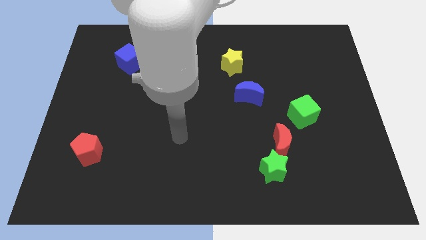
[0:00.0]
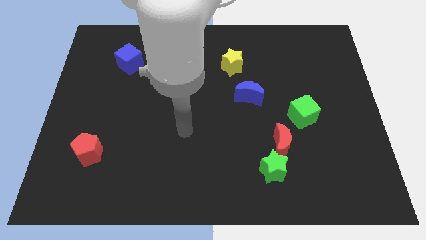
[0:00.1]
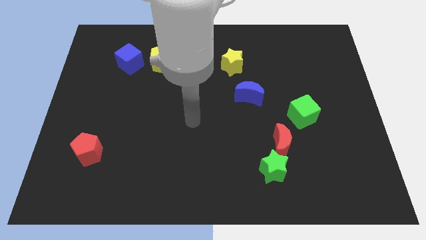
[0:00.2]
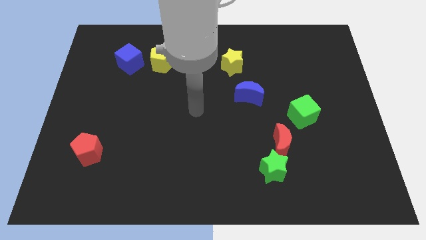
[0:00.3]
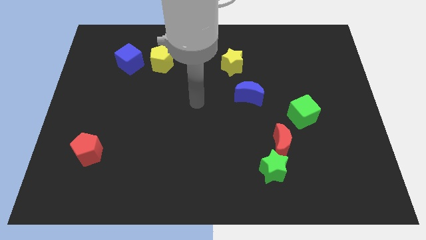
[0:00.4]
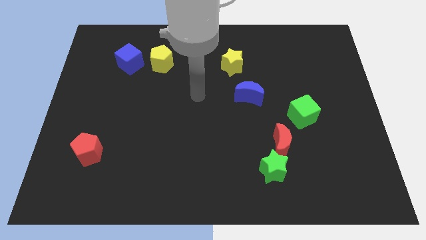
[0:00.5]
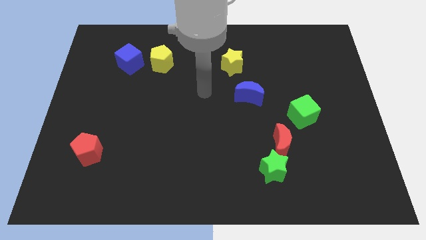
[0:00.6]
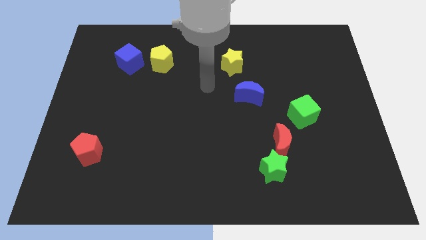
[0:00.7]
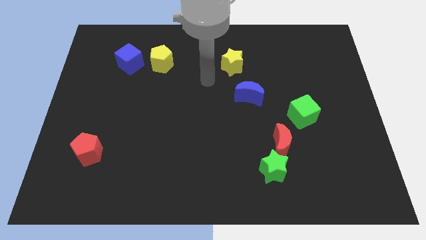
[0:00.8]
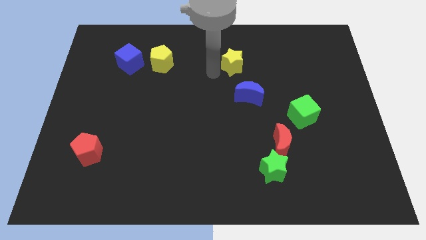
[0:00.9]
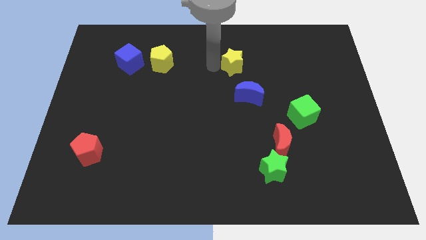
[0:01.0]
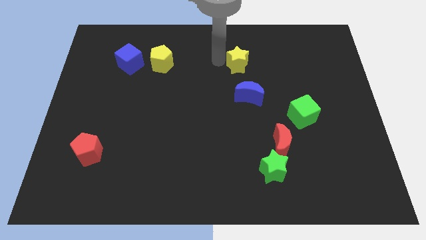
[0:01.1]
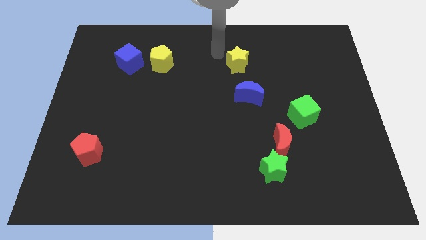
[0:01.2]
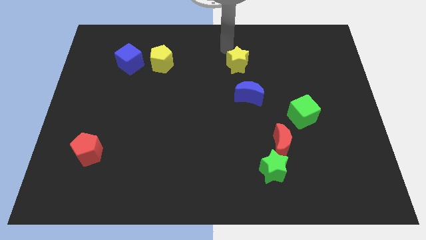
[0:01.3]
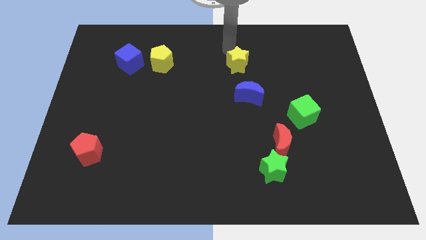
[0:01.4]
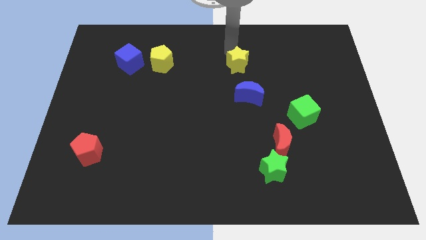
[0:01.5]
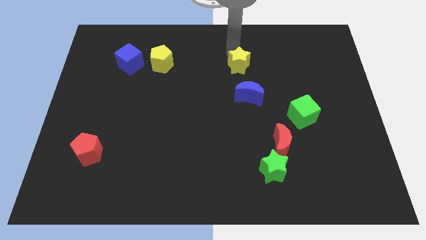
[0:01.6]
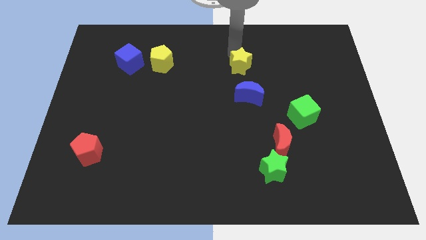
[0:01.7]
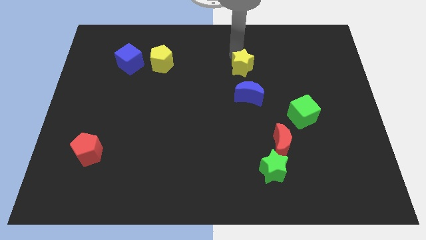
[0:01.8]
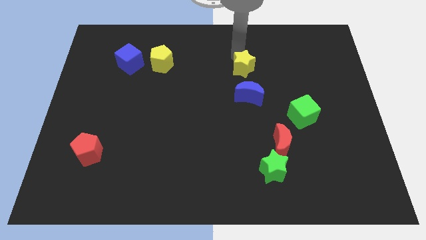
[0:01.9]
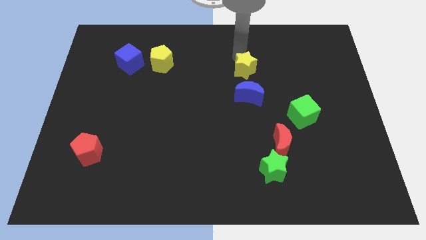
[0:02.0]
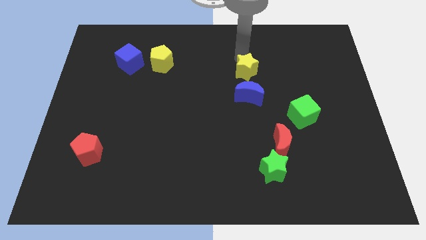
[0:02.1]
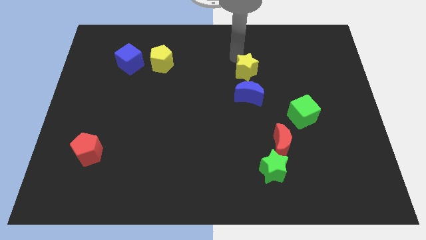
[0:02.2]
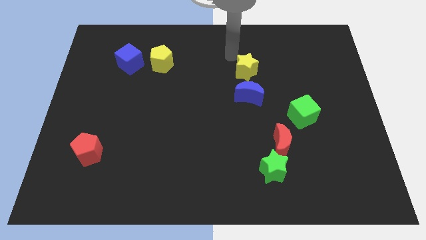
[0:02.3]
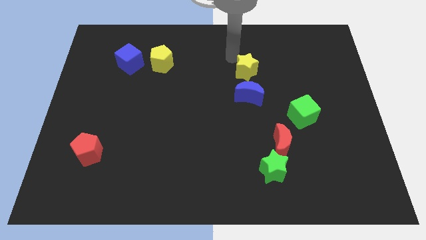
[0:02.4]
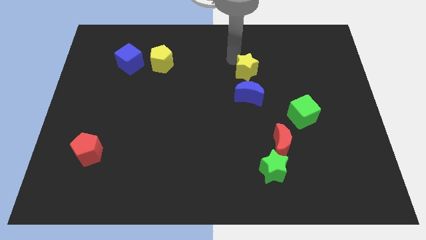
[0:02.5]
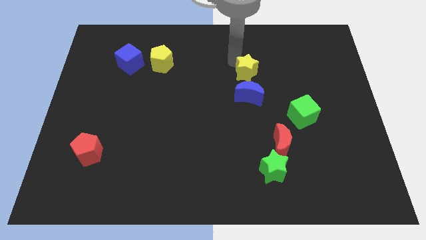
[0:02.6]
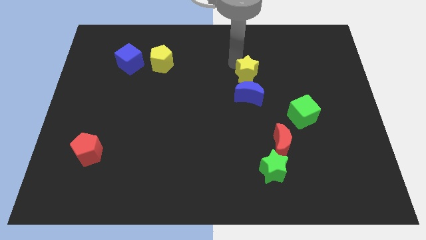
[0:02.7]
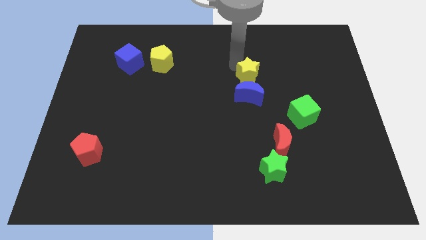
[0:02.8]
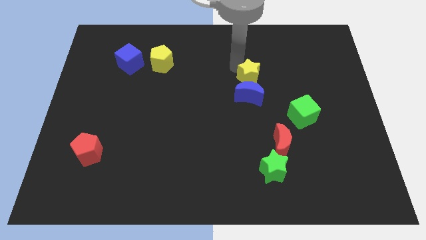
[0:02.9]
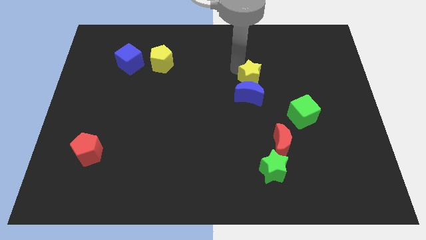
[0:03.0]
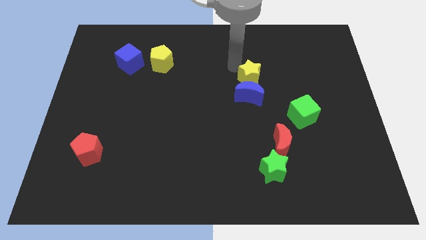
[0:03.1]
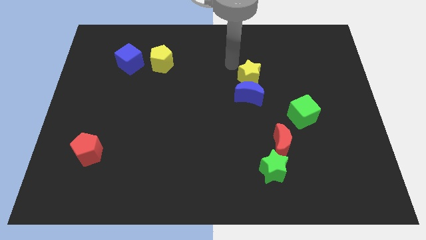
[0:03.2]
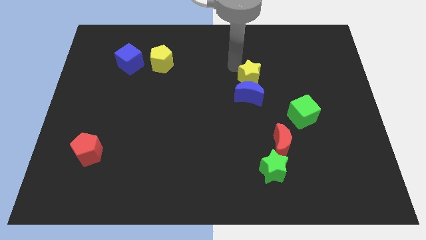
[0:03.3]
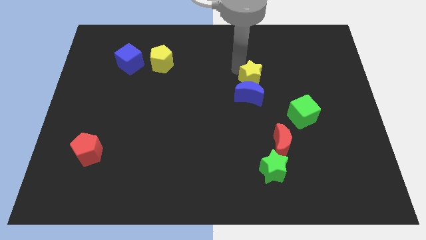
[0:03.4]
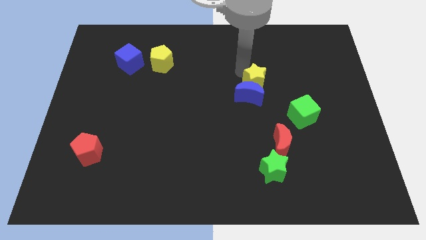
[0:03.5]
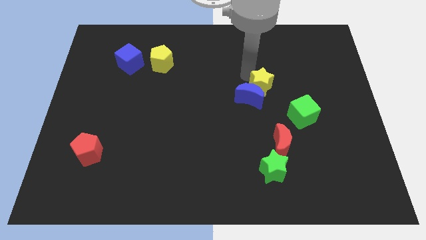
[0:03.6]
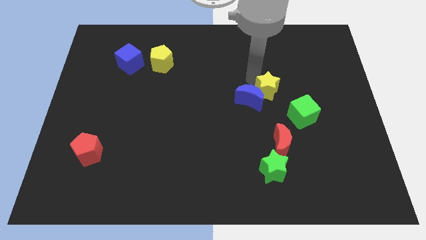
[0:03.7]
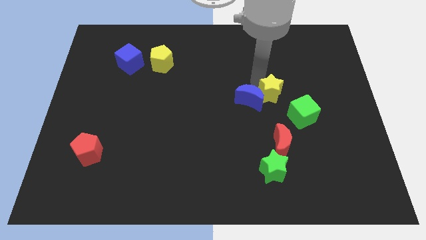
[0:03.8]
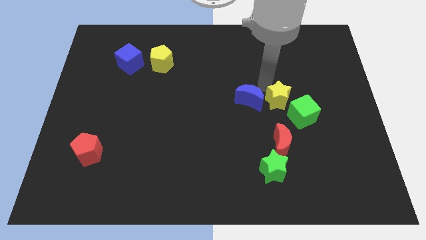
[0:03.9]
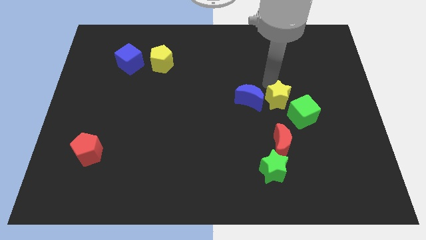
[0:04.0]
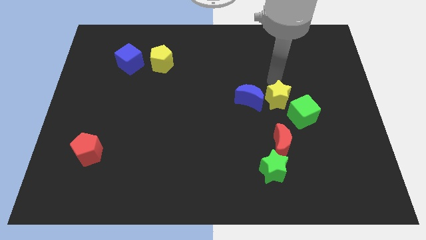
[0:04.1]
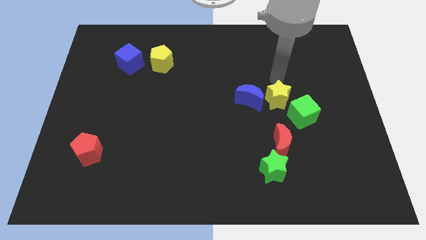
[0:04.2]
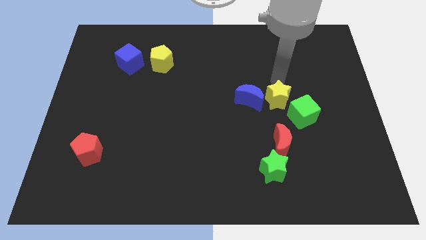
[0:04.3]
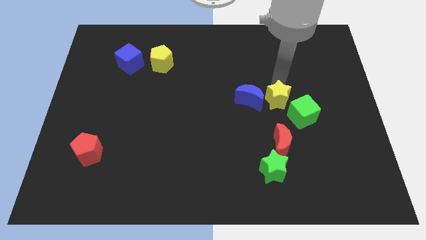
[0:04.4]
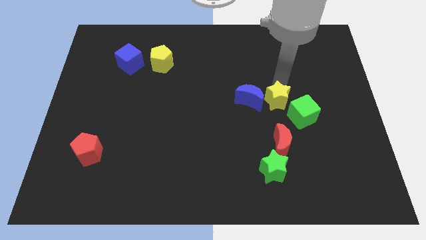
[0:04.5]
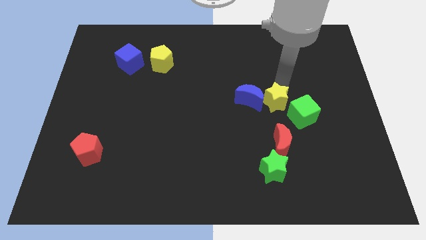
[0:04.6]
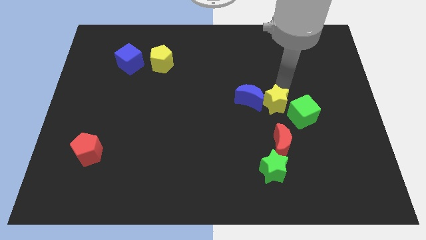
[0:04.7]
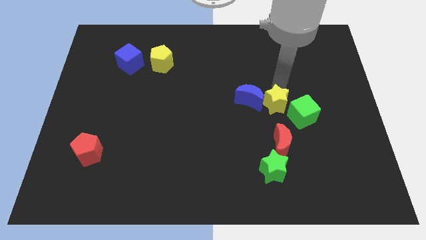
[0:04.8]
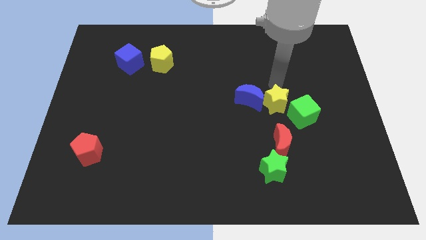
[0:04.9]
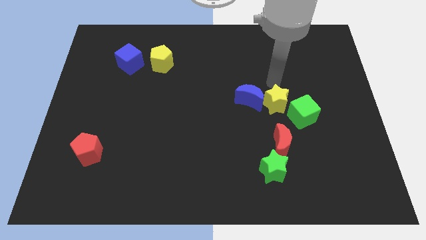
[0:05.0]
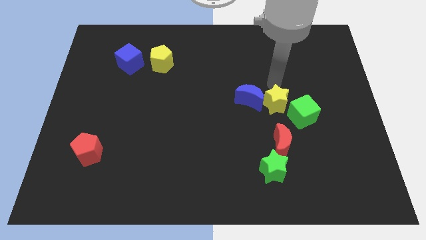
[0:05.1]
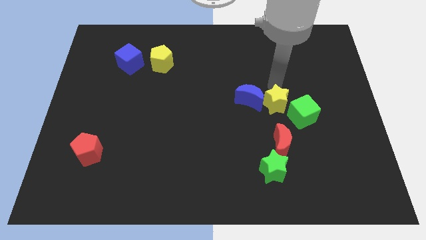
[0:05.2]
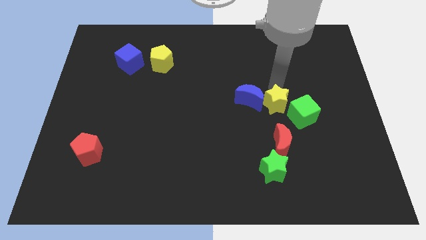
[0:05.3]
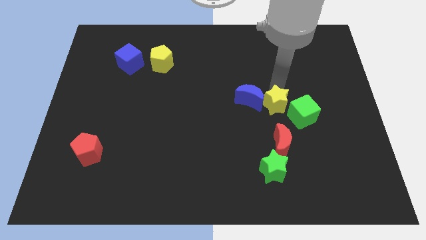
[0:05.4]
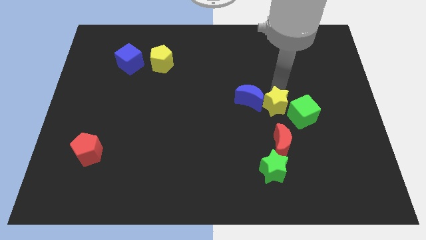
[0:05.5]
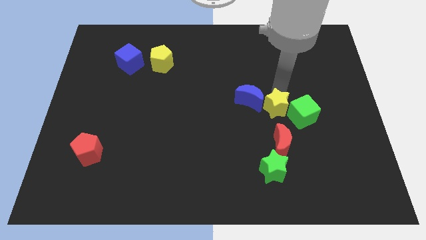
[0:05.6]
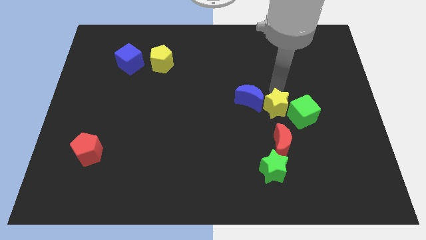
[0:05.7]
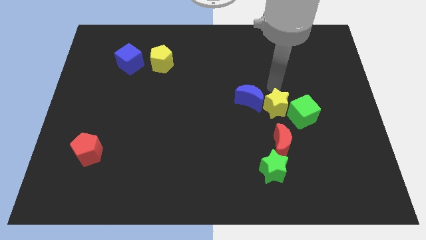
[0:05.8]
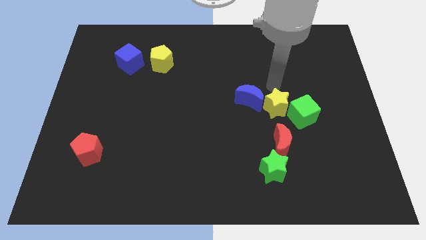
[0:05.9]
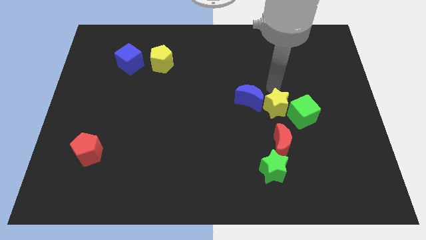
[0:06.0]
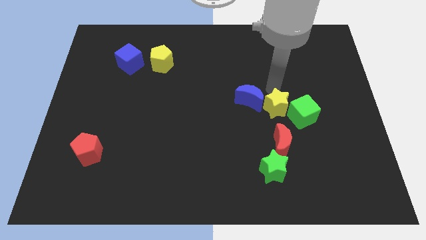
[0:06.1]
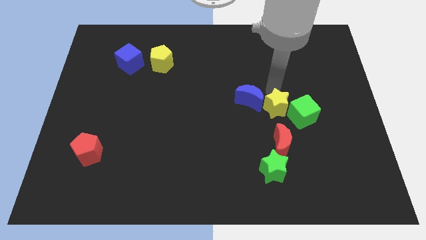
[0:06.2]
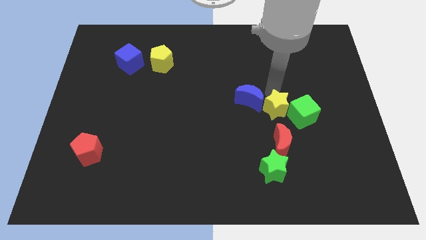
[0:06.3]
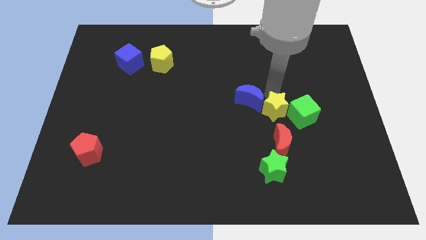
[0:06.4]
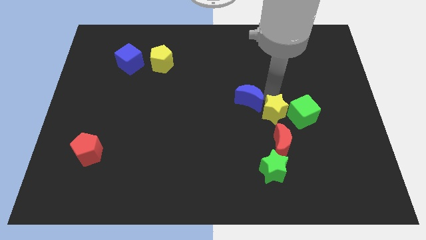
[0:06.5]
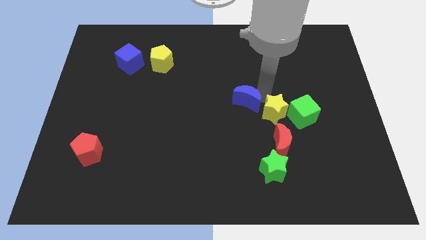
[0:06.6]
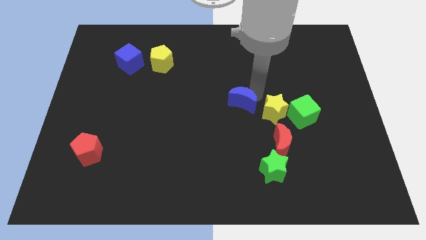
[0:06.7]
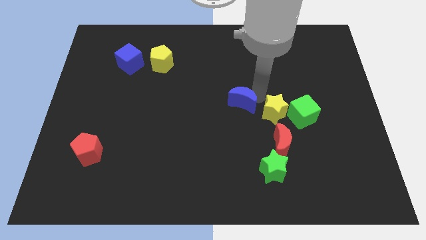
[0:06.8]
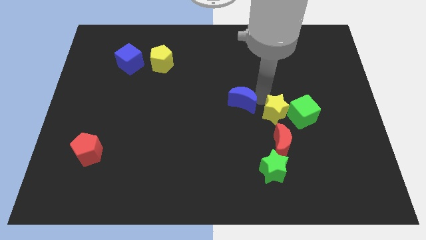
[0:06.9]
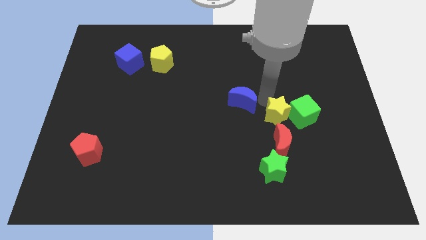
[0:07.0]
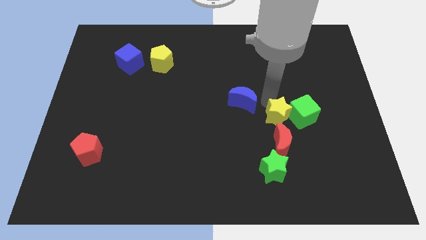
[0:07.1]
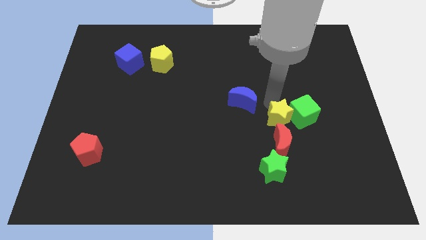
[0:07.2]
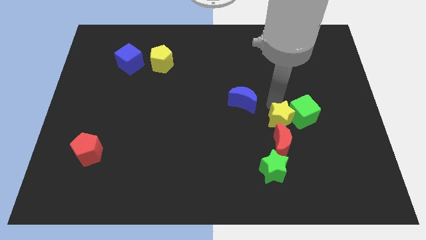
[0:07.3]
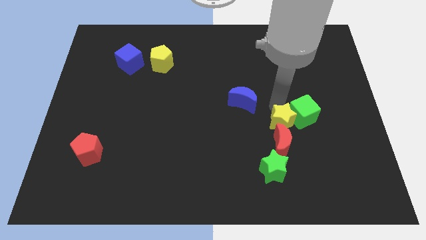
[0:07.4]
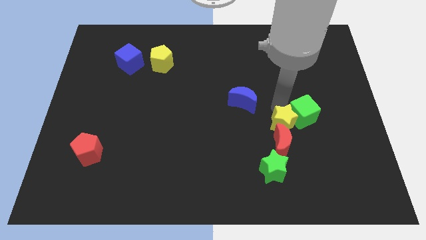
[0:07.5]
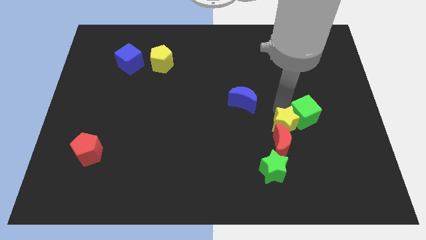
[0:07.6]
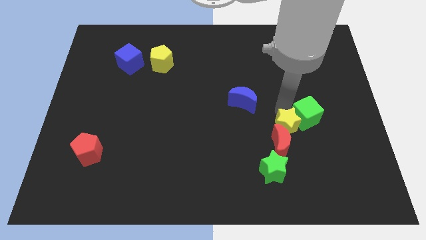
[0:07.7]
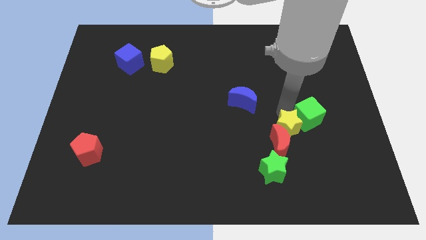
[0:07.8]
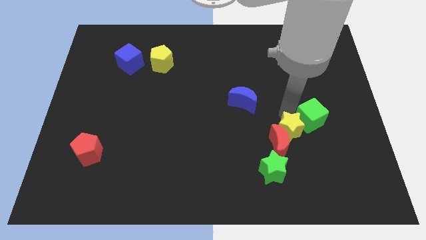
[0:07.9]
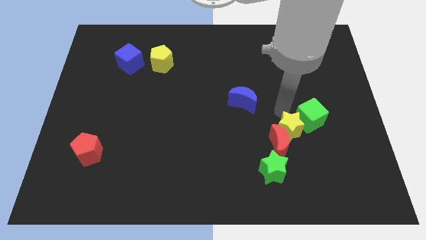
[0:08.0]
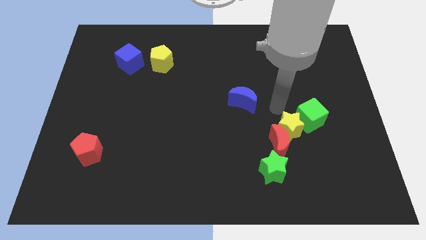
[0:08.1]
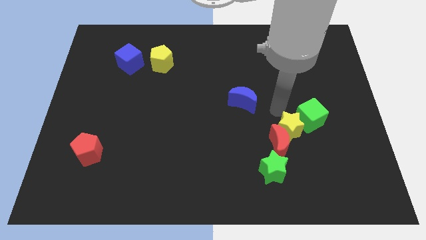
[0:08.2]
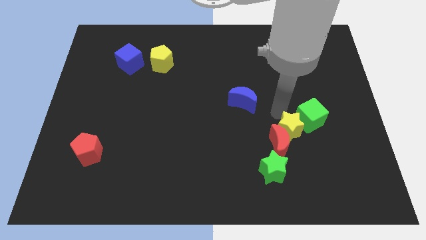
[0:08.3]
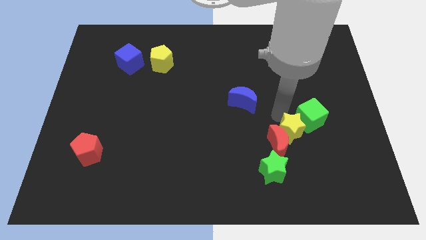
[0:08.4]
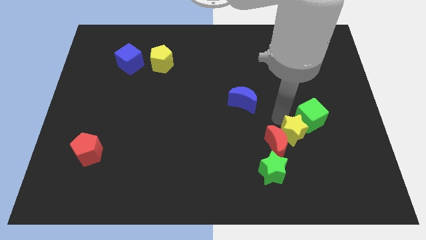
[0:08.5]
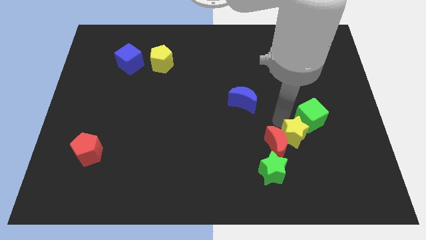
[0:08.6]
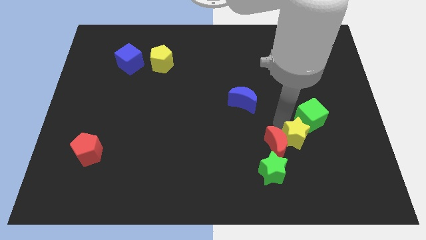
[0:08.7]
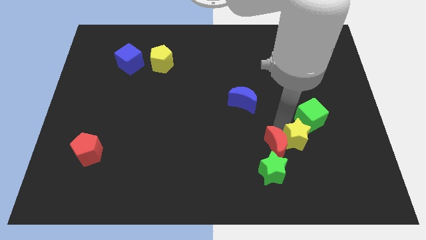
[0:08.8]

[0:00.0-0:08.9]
move the yellow star to the bottom right side of the red moon
